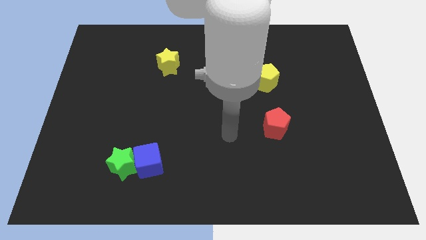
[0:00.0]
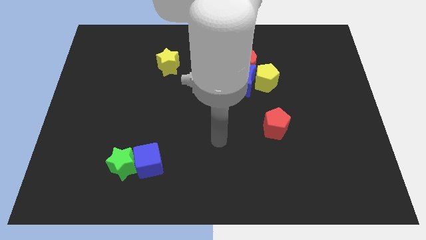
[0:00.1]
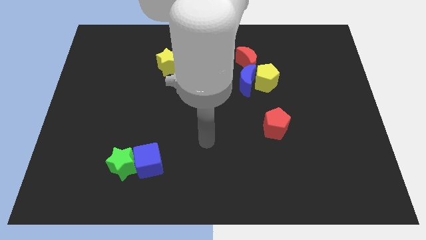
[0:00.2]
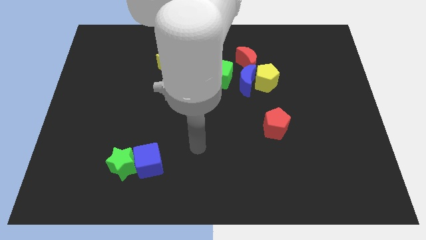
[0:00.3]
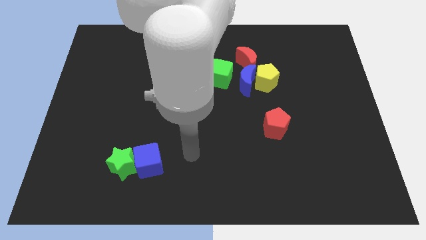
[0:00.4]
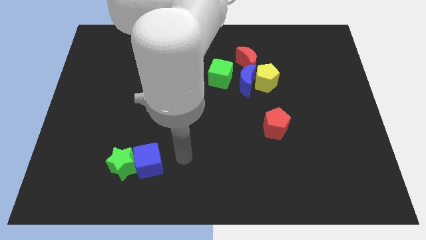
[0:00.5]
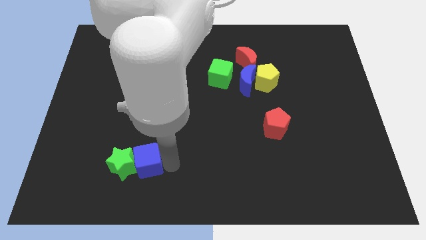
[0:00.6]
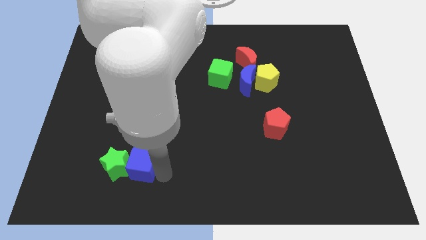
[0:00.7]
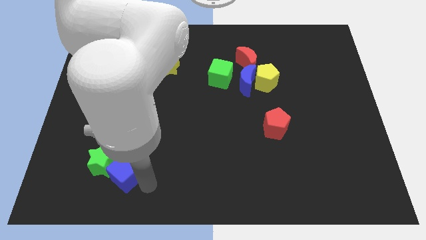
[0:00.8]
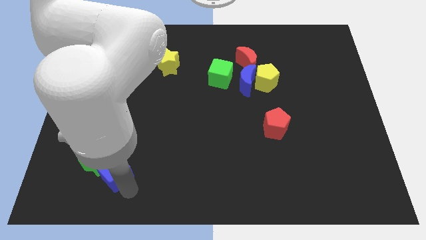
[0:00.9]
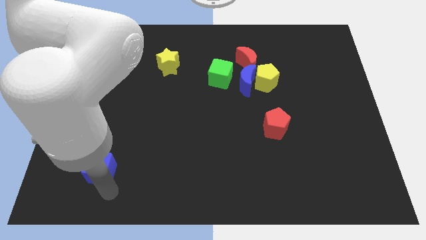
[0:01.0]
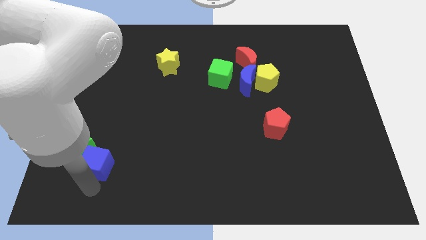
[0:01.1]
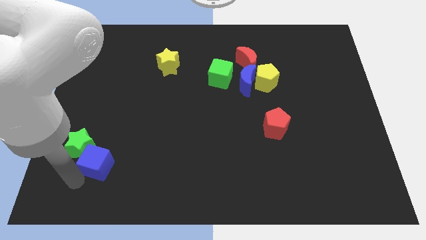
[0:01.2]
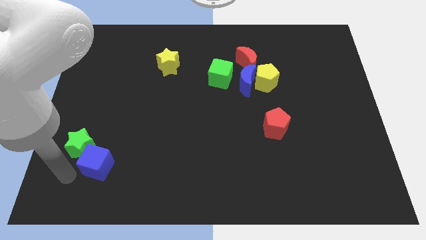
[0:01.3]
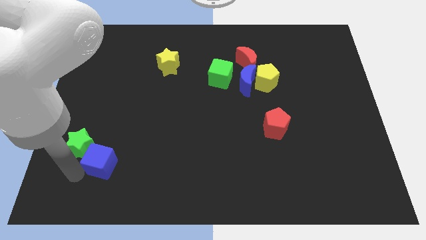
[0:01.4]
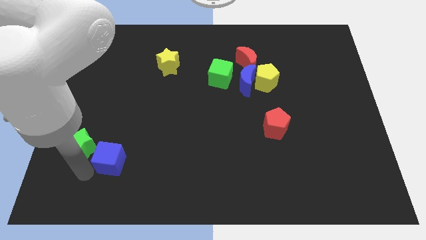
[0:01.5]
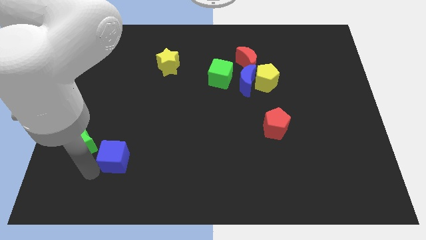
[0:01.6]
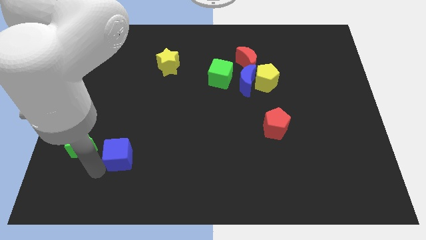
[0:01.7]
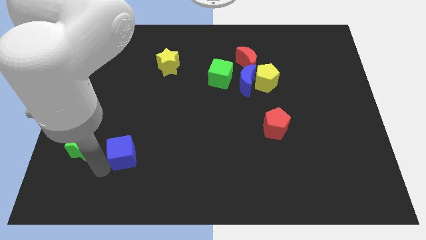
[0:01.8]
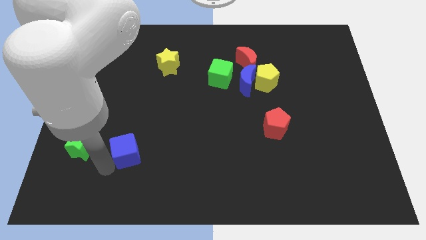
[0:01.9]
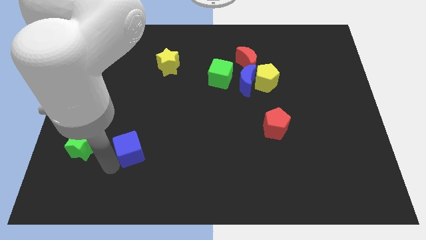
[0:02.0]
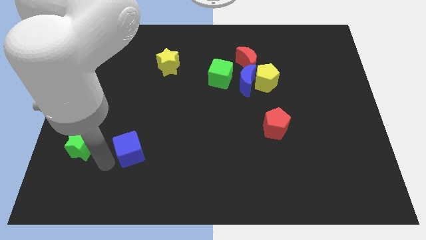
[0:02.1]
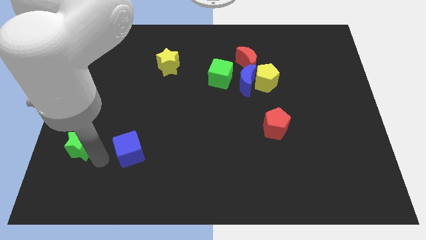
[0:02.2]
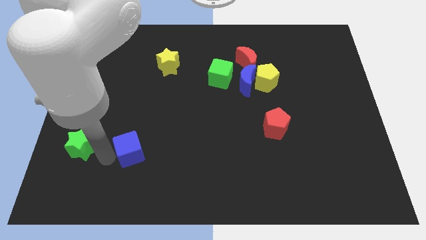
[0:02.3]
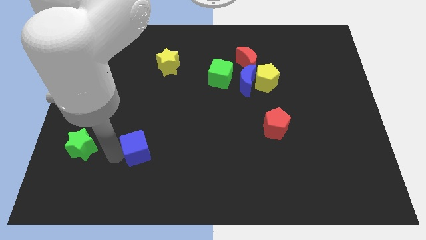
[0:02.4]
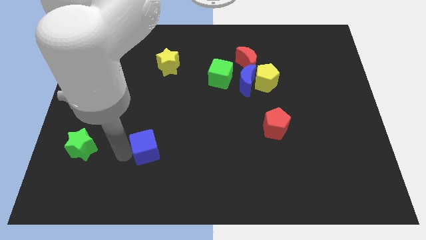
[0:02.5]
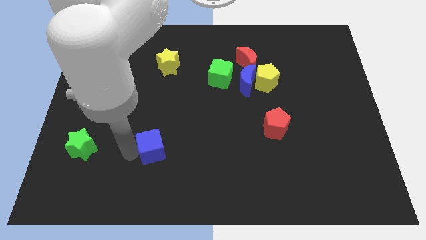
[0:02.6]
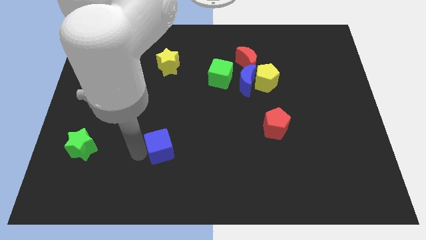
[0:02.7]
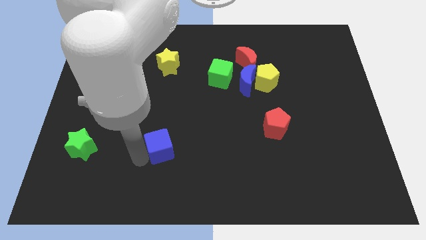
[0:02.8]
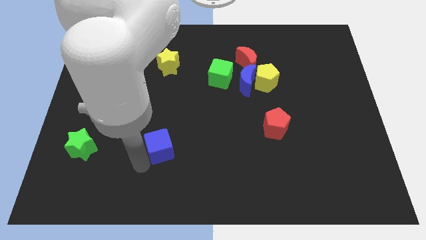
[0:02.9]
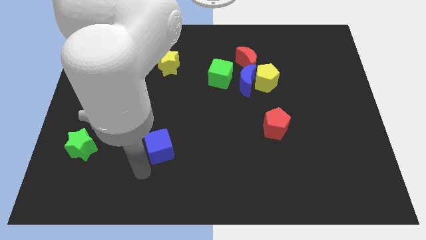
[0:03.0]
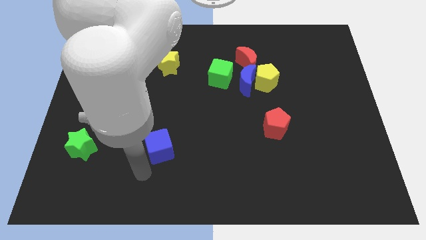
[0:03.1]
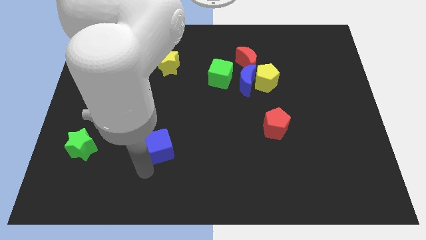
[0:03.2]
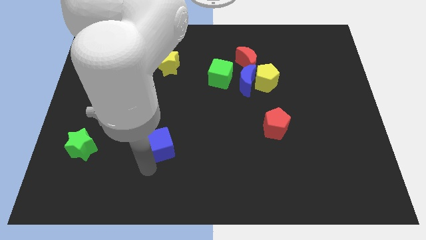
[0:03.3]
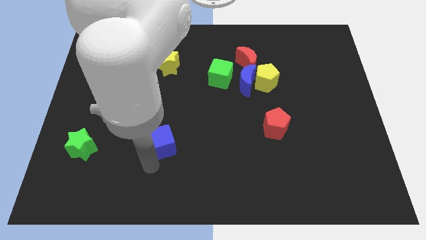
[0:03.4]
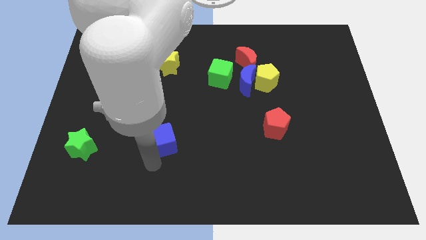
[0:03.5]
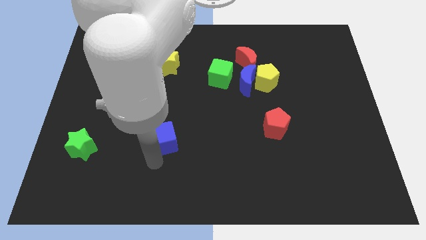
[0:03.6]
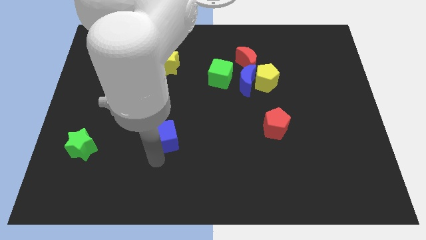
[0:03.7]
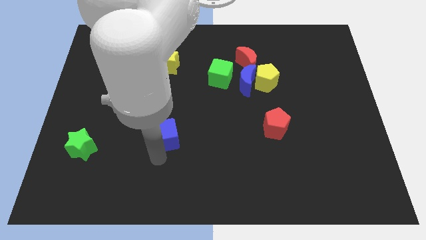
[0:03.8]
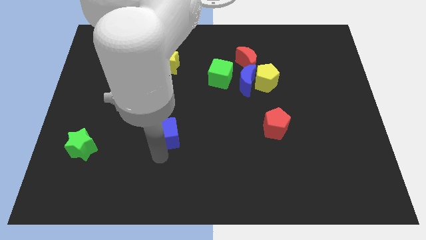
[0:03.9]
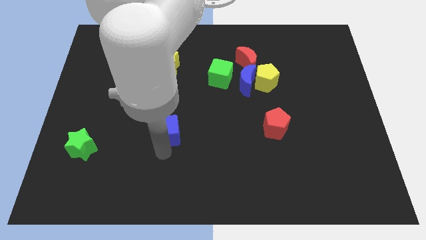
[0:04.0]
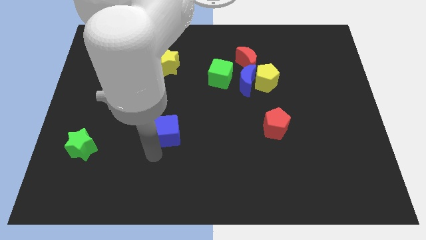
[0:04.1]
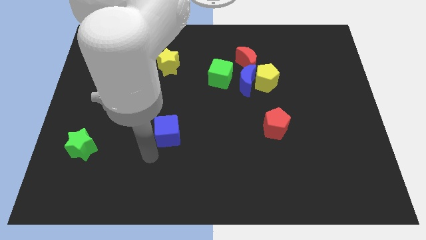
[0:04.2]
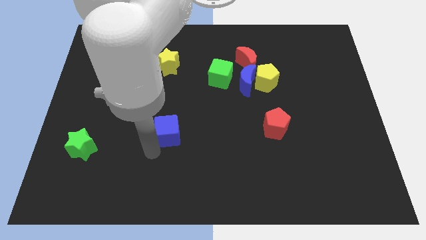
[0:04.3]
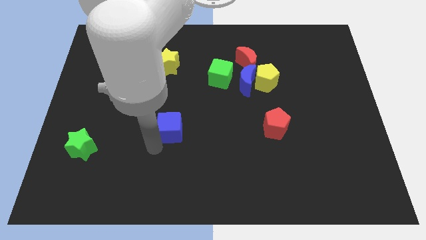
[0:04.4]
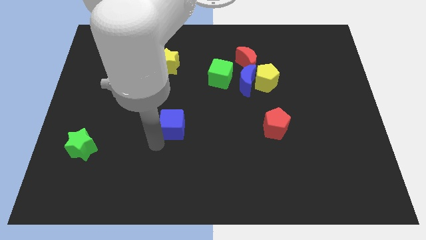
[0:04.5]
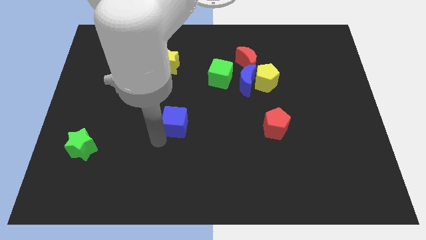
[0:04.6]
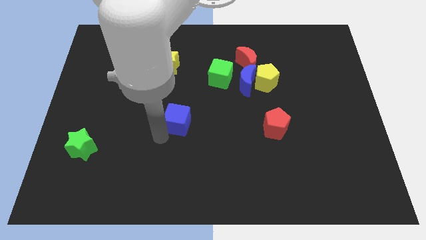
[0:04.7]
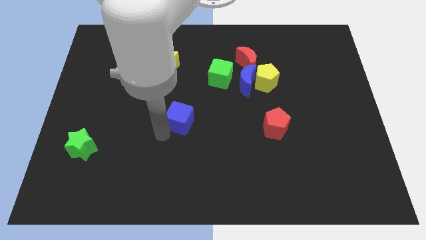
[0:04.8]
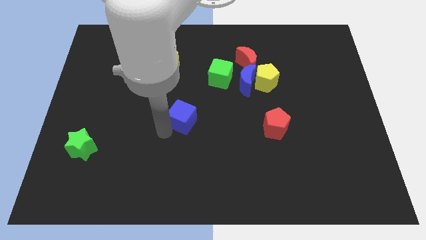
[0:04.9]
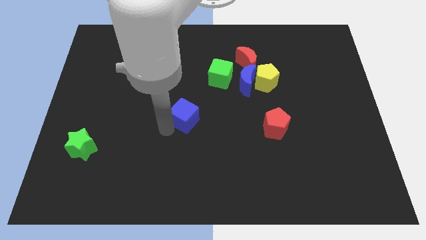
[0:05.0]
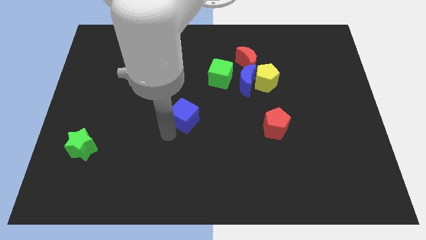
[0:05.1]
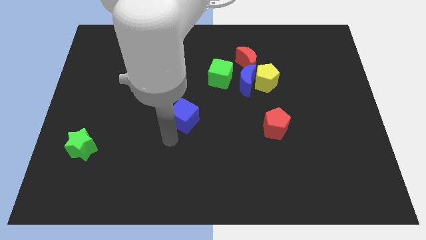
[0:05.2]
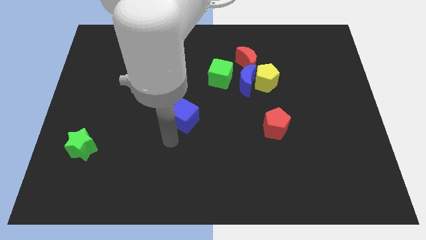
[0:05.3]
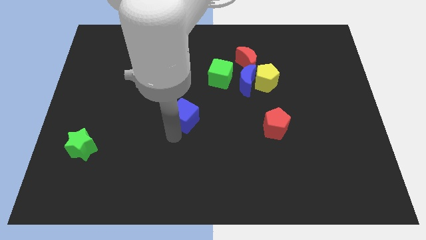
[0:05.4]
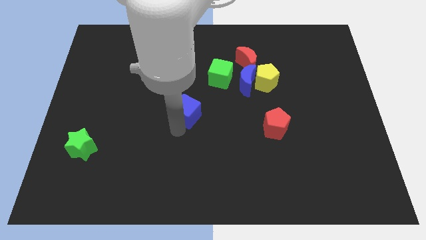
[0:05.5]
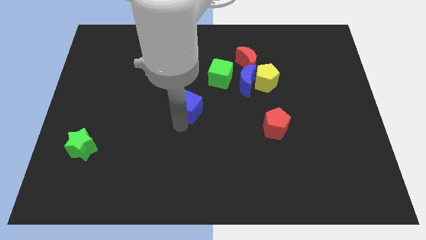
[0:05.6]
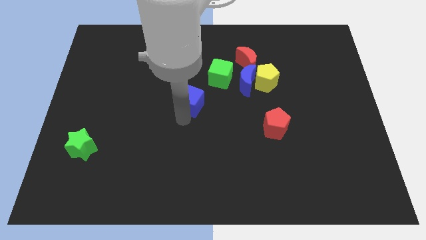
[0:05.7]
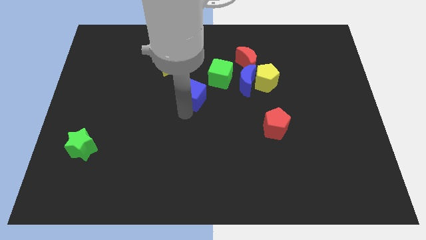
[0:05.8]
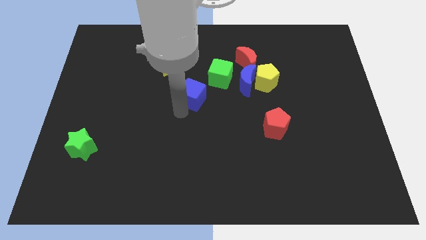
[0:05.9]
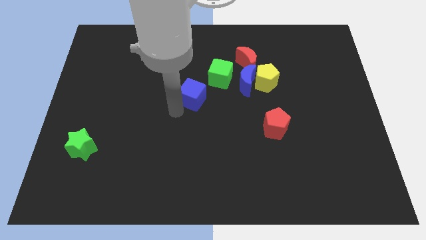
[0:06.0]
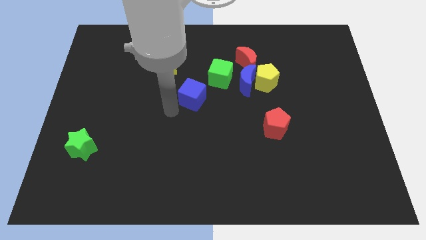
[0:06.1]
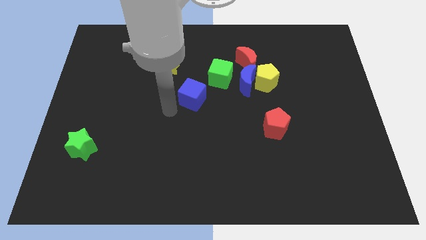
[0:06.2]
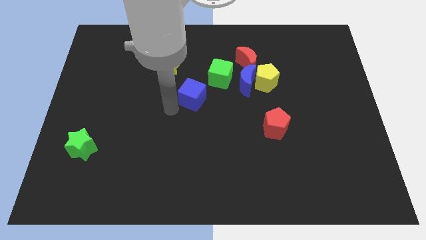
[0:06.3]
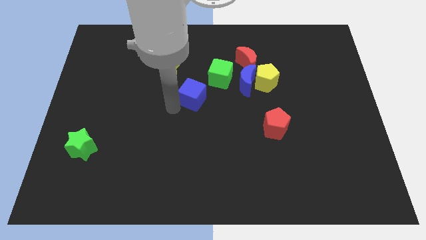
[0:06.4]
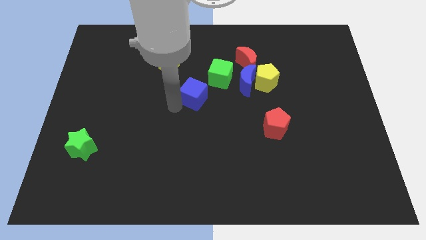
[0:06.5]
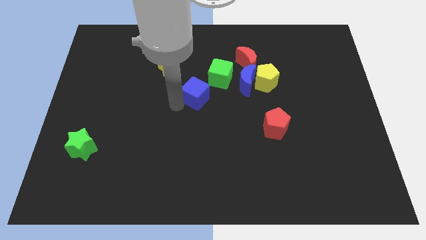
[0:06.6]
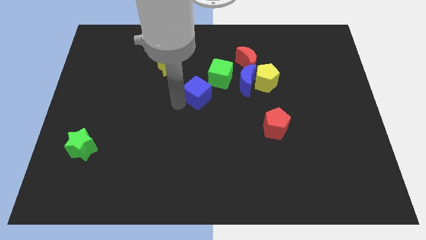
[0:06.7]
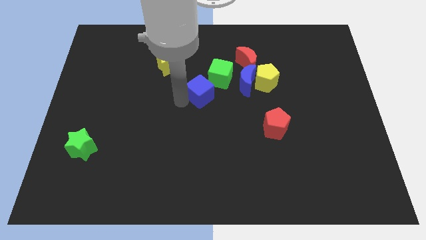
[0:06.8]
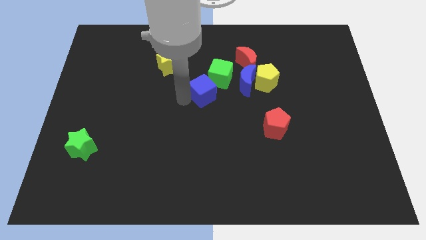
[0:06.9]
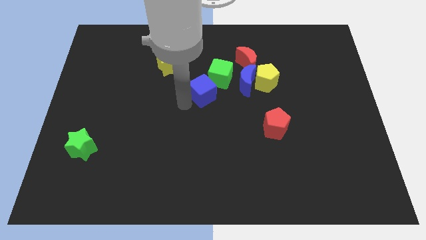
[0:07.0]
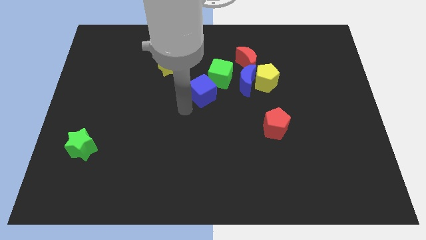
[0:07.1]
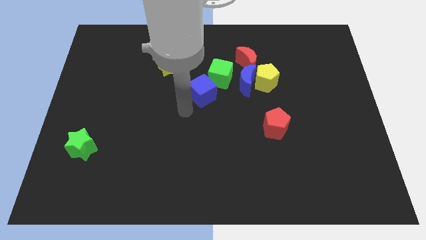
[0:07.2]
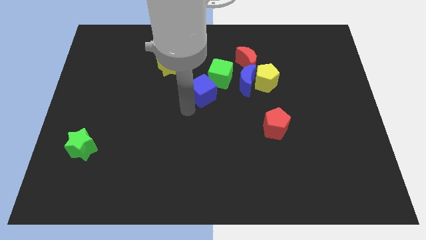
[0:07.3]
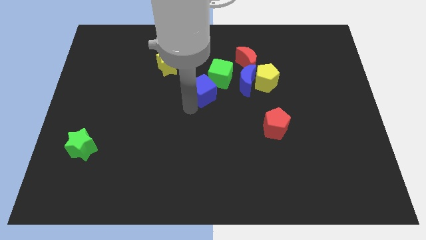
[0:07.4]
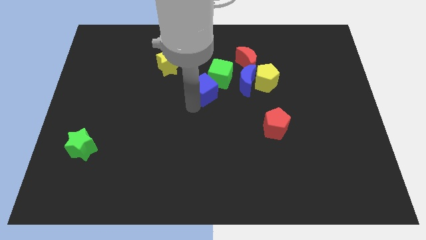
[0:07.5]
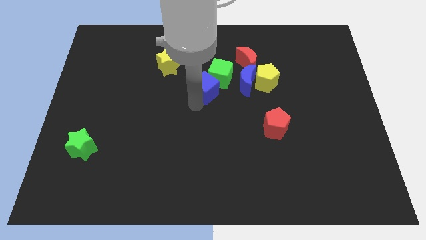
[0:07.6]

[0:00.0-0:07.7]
put the blue cube to the green cube
